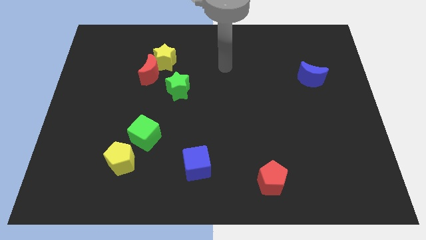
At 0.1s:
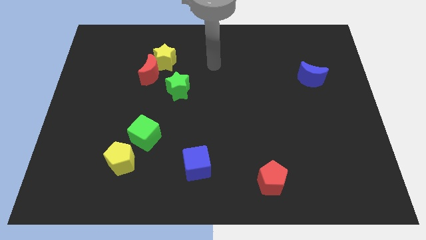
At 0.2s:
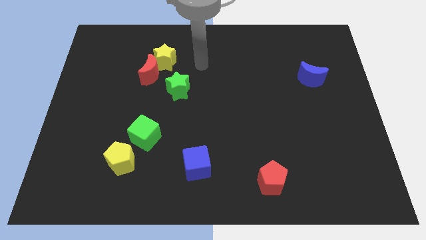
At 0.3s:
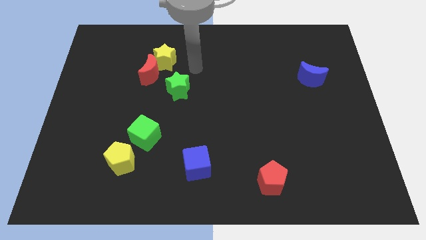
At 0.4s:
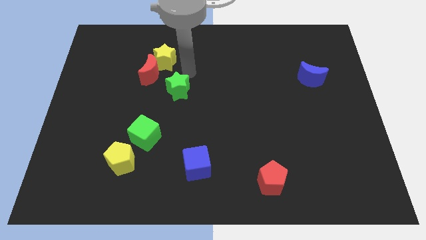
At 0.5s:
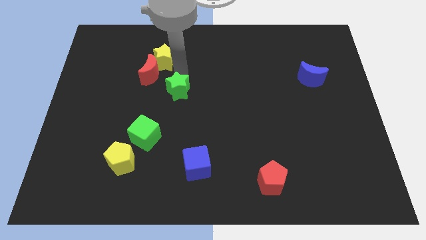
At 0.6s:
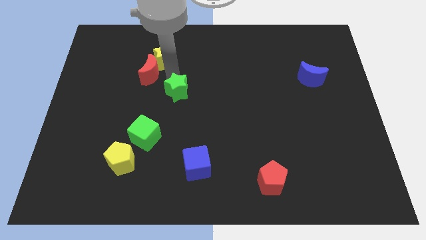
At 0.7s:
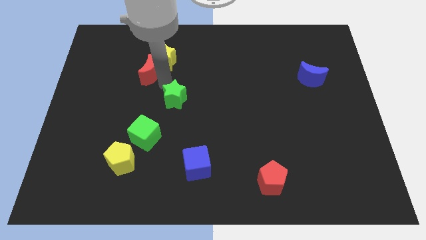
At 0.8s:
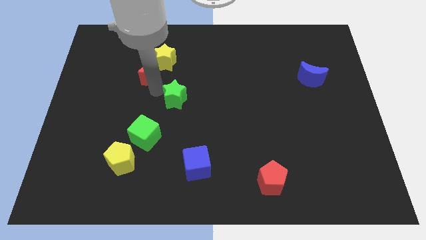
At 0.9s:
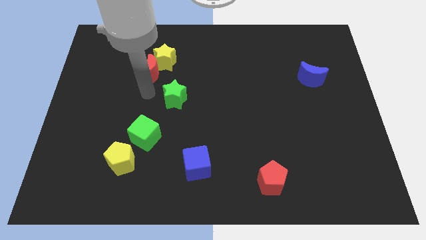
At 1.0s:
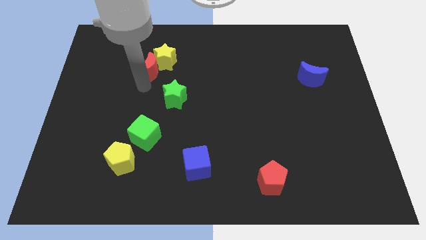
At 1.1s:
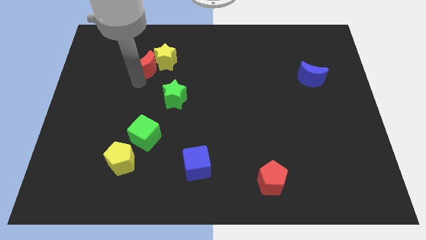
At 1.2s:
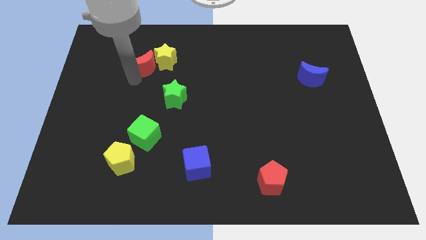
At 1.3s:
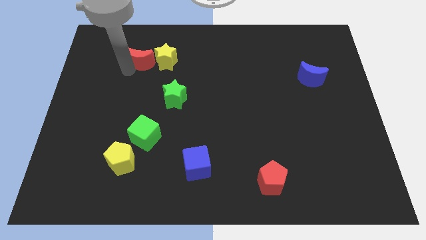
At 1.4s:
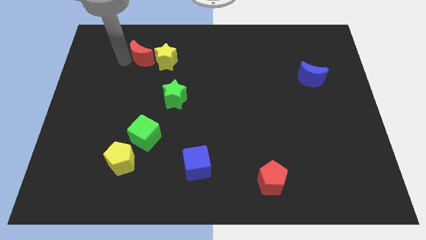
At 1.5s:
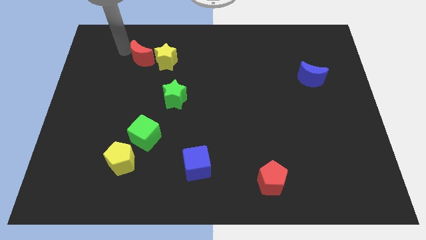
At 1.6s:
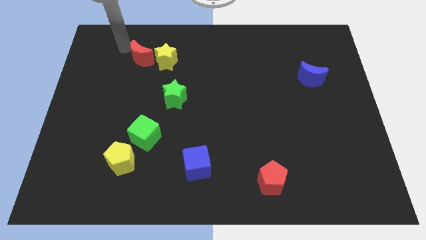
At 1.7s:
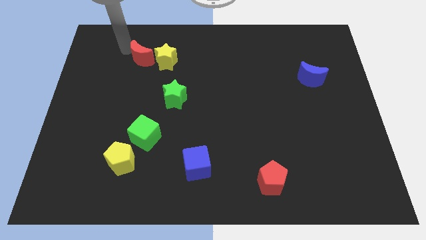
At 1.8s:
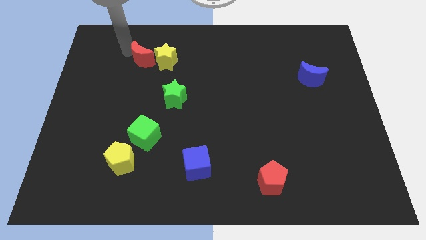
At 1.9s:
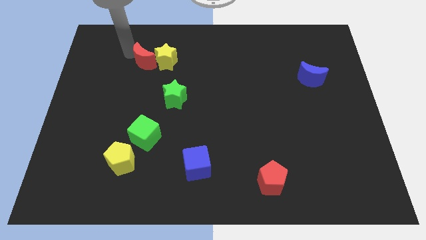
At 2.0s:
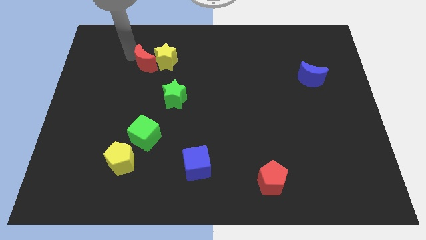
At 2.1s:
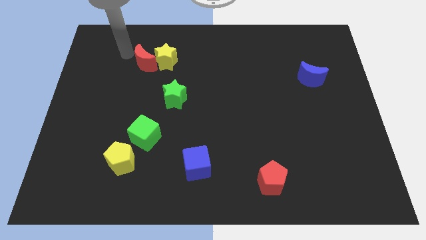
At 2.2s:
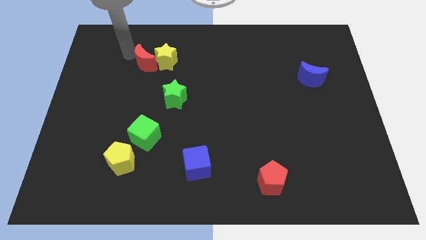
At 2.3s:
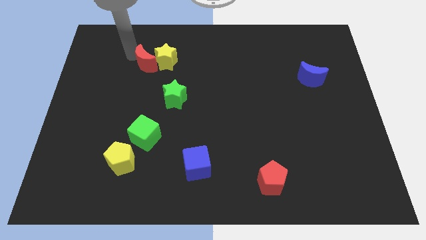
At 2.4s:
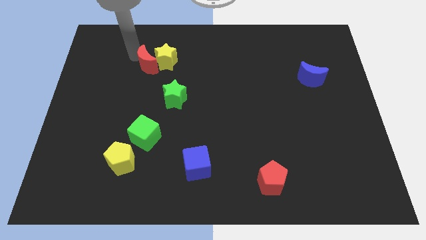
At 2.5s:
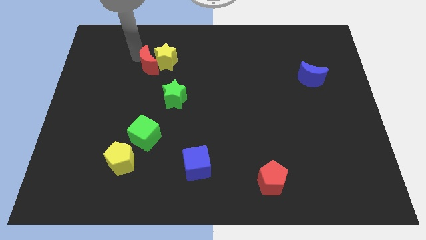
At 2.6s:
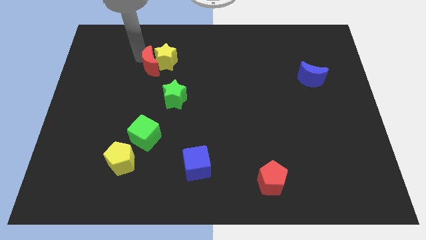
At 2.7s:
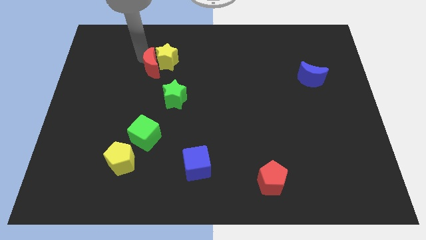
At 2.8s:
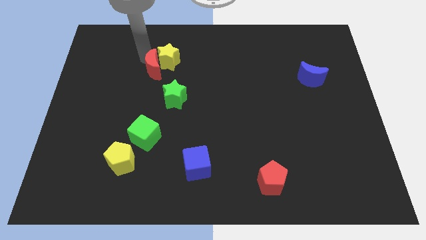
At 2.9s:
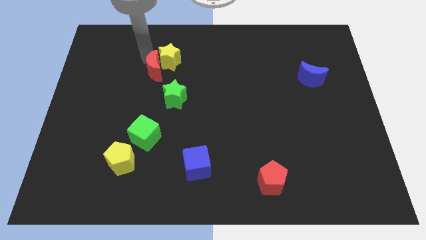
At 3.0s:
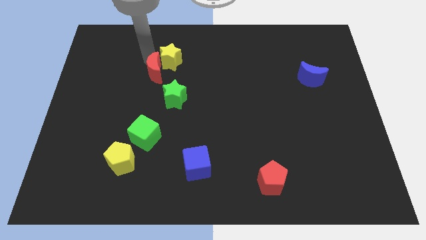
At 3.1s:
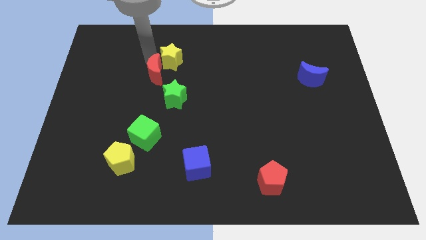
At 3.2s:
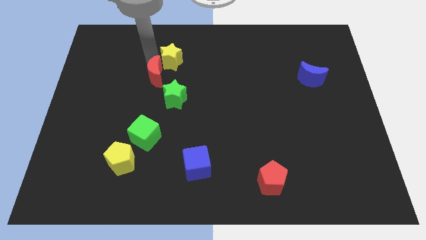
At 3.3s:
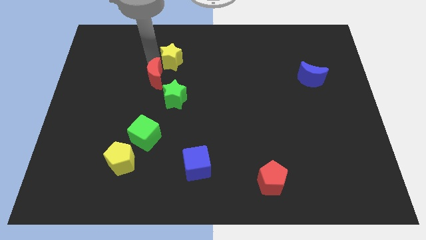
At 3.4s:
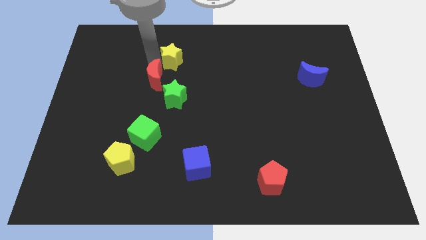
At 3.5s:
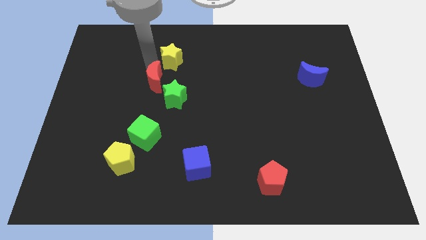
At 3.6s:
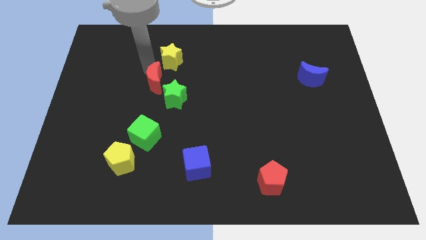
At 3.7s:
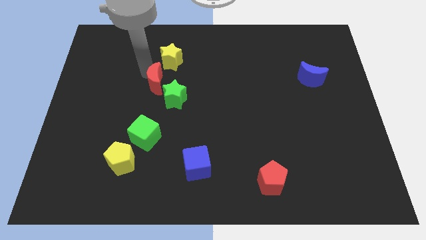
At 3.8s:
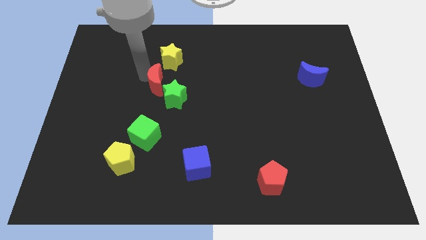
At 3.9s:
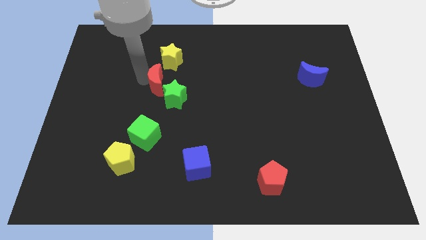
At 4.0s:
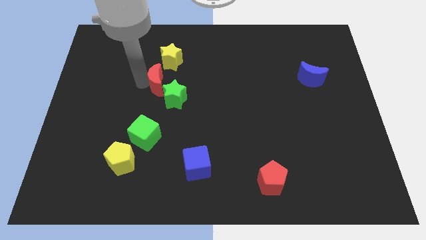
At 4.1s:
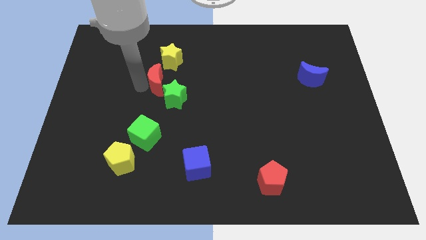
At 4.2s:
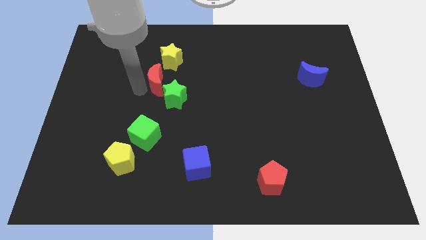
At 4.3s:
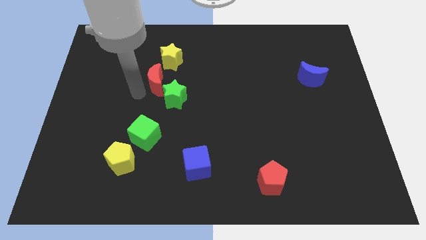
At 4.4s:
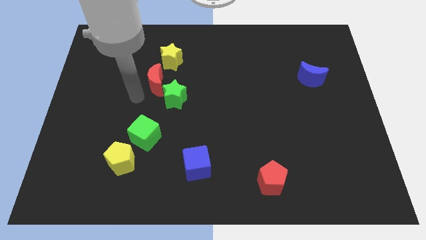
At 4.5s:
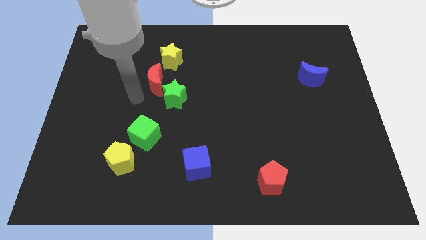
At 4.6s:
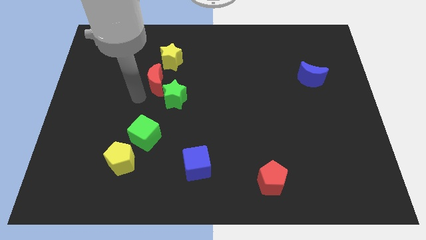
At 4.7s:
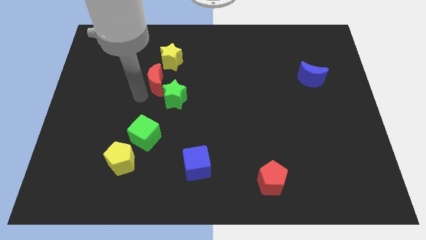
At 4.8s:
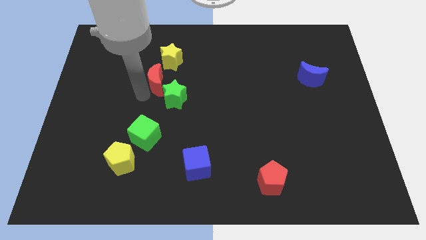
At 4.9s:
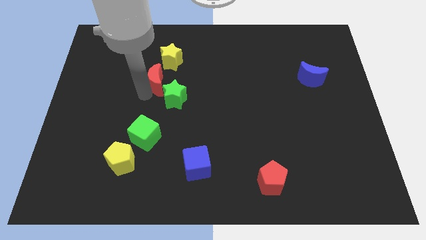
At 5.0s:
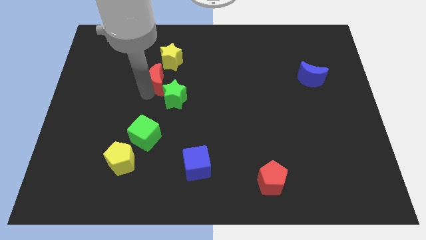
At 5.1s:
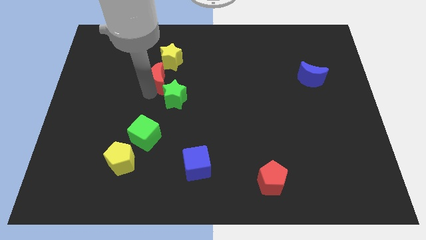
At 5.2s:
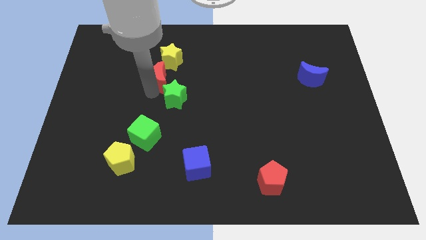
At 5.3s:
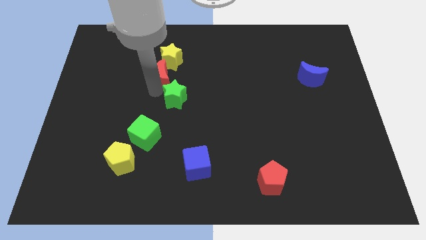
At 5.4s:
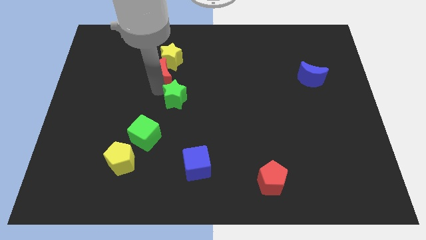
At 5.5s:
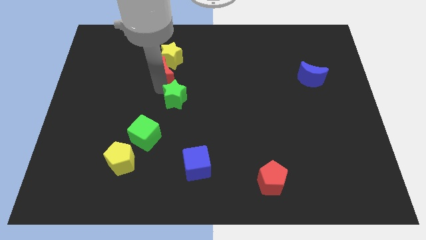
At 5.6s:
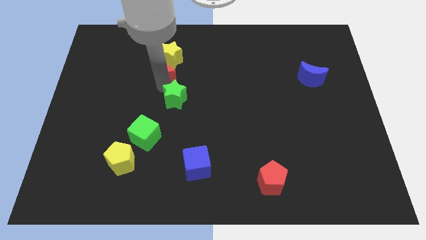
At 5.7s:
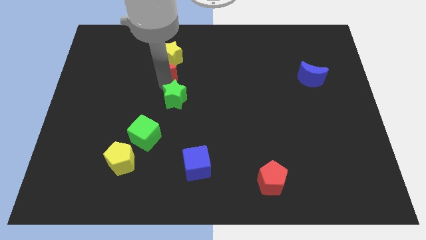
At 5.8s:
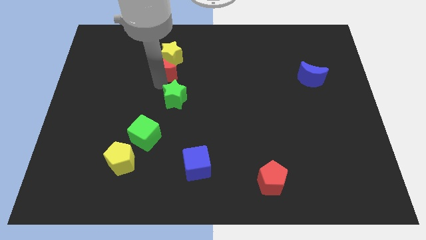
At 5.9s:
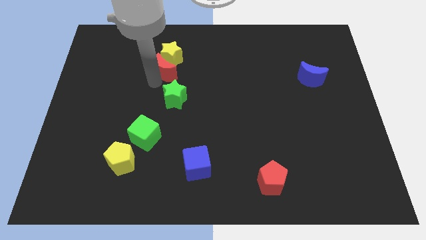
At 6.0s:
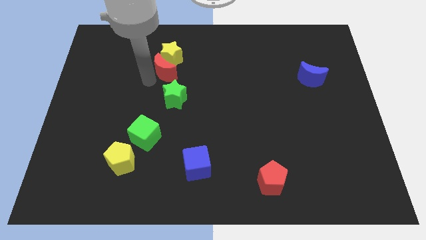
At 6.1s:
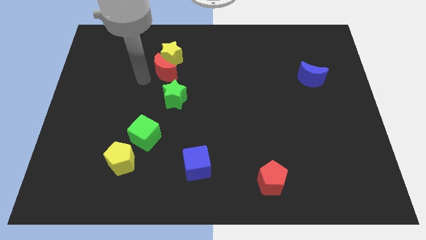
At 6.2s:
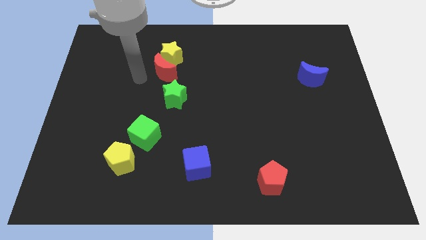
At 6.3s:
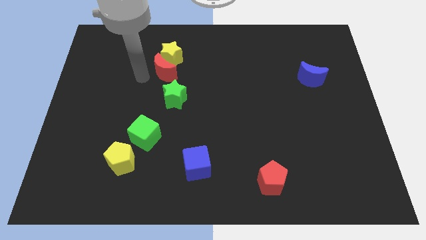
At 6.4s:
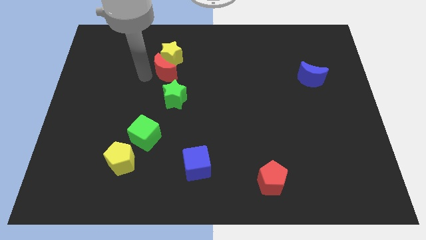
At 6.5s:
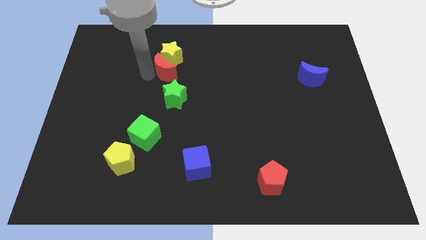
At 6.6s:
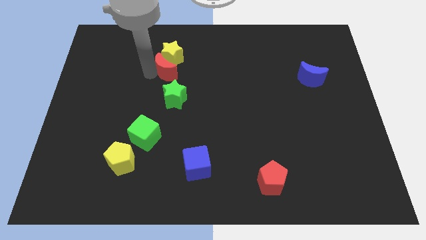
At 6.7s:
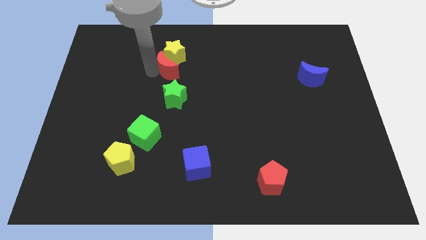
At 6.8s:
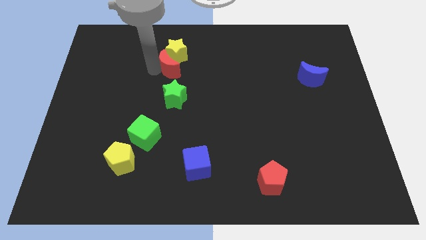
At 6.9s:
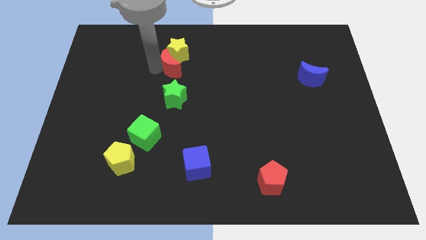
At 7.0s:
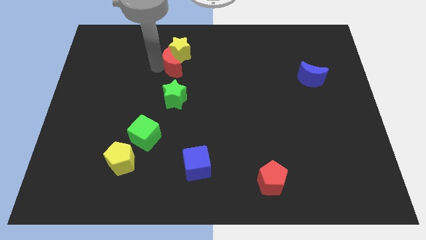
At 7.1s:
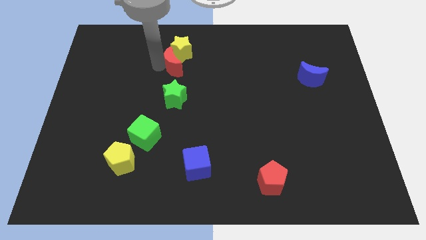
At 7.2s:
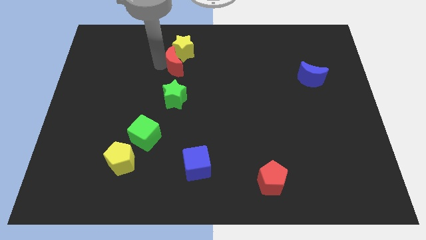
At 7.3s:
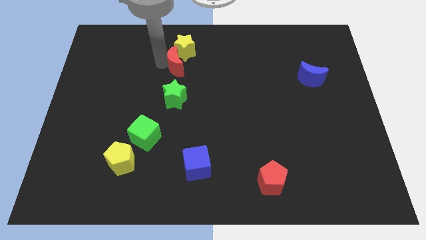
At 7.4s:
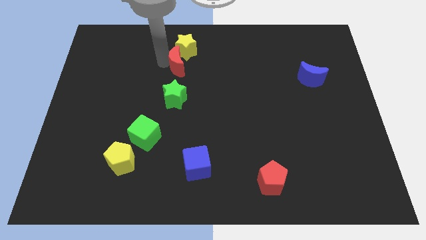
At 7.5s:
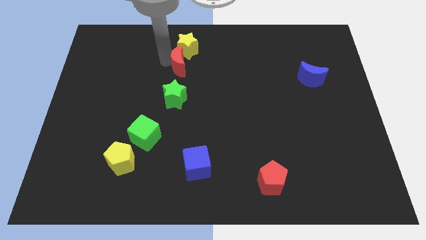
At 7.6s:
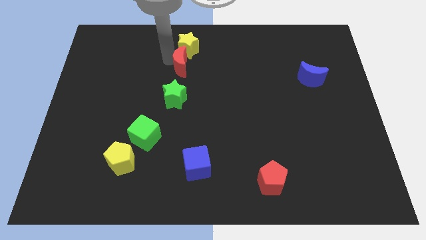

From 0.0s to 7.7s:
slide the red moon slightly right
